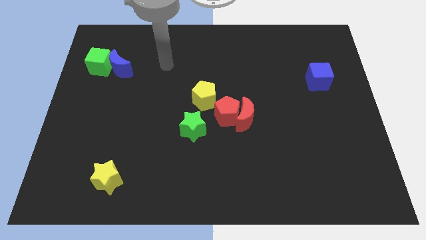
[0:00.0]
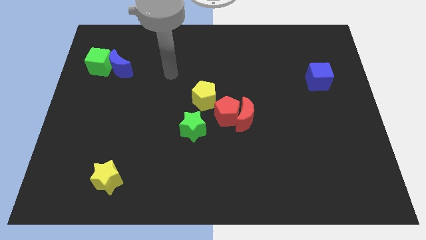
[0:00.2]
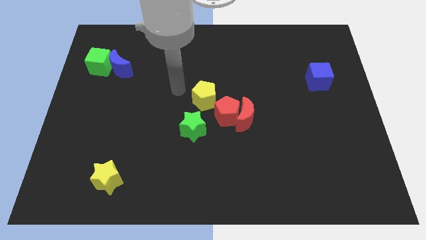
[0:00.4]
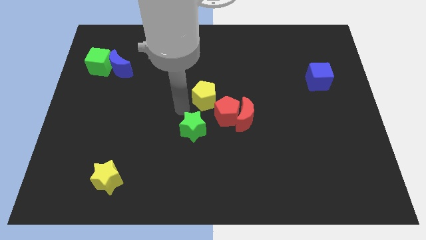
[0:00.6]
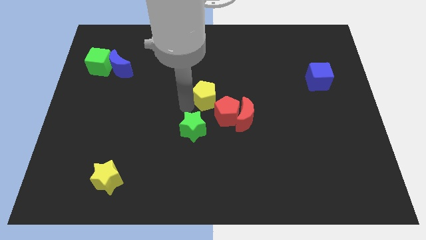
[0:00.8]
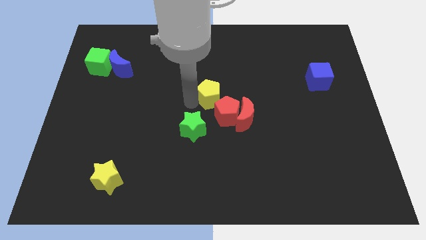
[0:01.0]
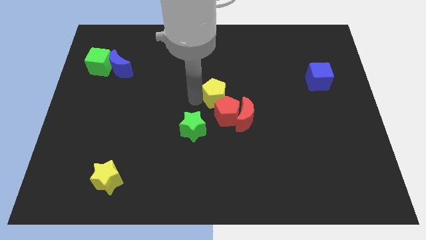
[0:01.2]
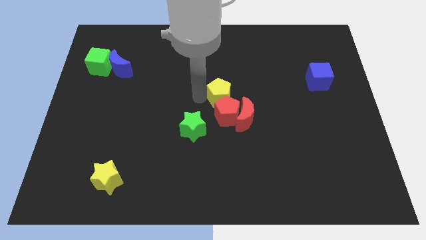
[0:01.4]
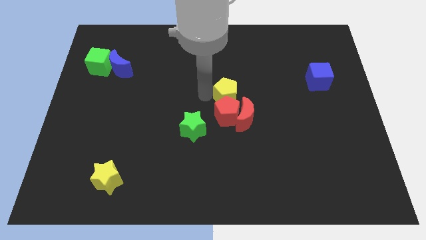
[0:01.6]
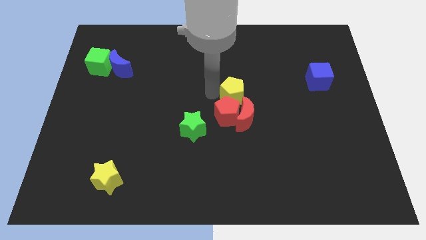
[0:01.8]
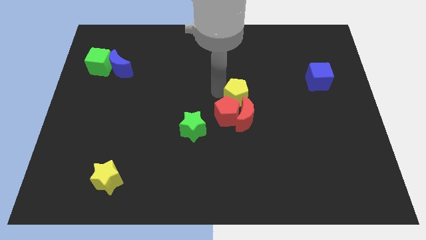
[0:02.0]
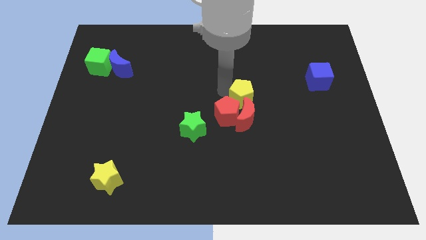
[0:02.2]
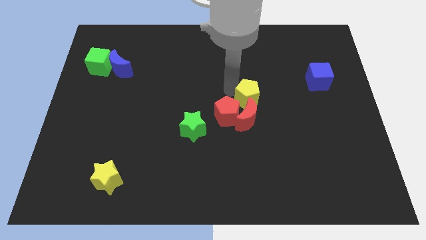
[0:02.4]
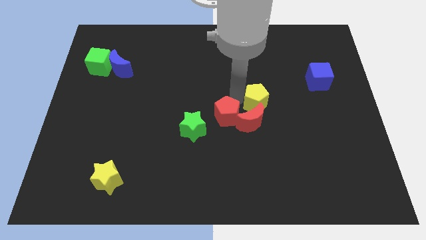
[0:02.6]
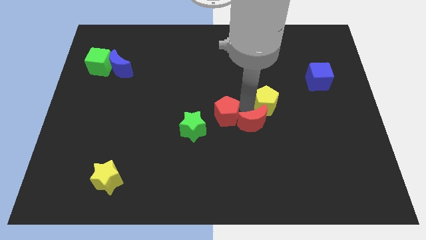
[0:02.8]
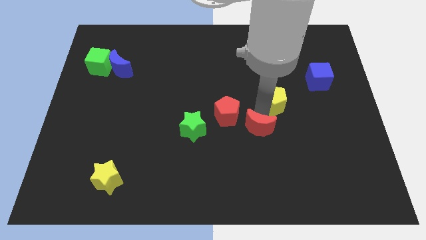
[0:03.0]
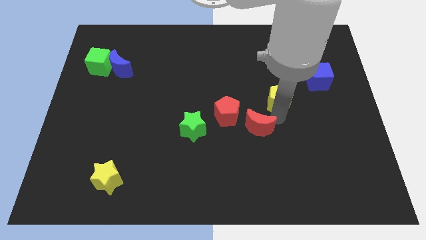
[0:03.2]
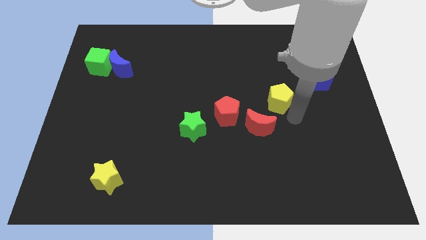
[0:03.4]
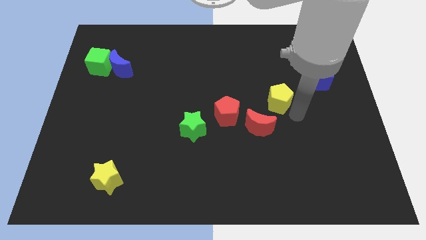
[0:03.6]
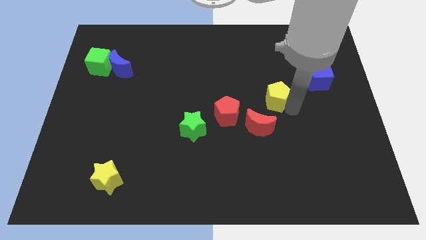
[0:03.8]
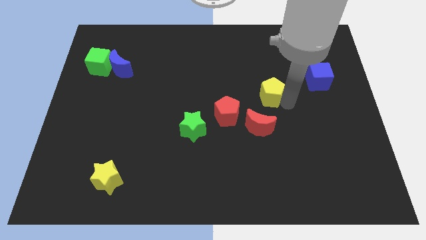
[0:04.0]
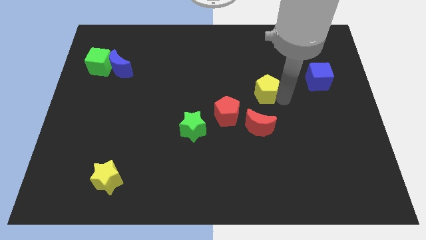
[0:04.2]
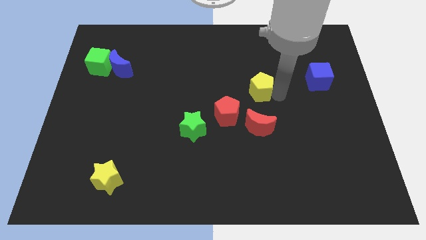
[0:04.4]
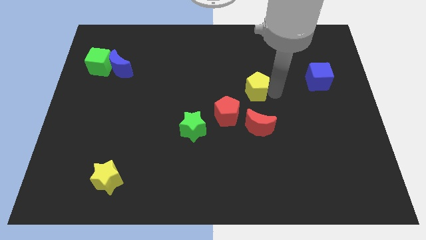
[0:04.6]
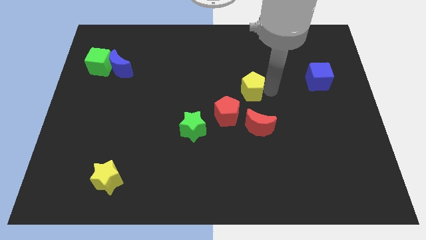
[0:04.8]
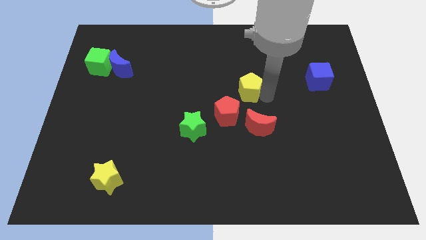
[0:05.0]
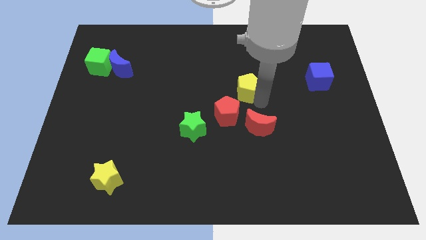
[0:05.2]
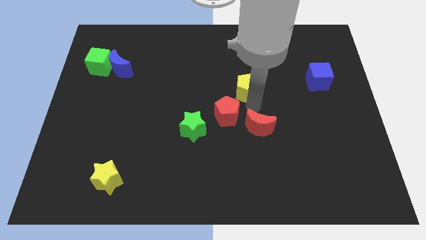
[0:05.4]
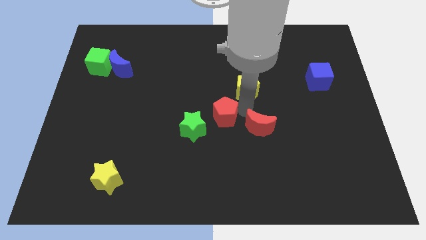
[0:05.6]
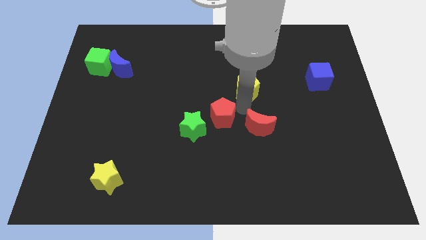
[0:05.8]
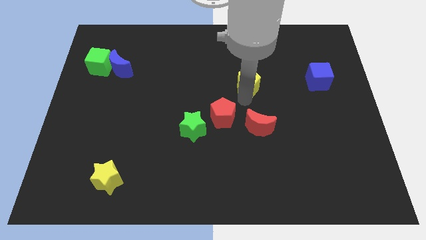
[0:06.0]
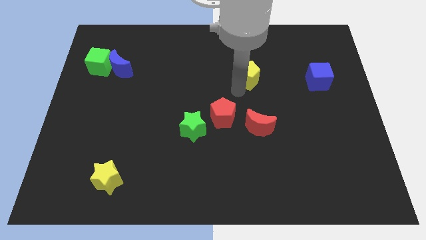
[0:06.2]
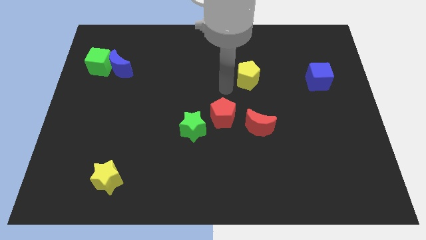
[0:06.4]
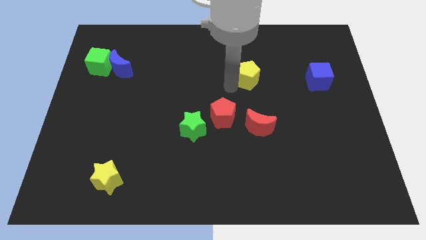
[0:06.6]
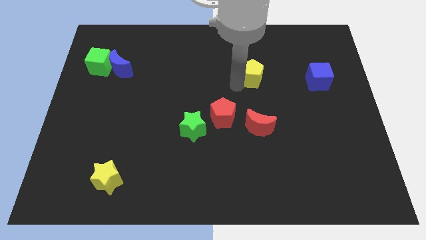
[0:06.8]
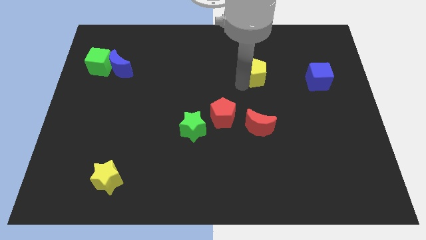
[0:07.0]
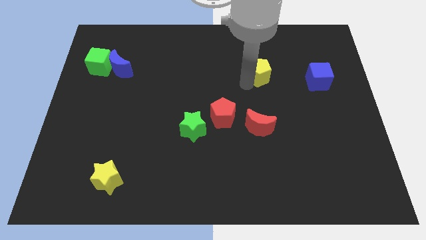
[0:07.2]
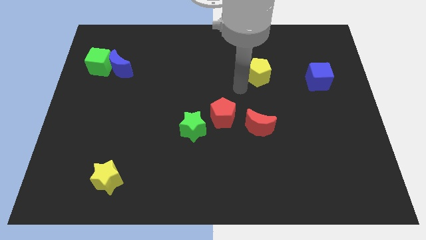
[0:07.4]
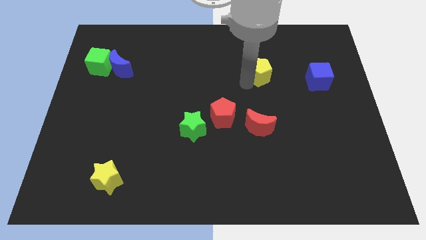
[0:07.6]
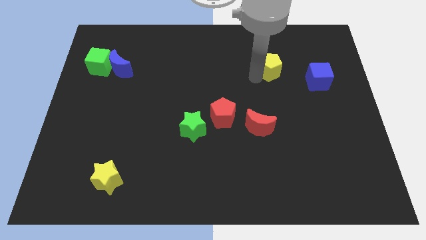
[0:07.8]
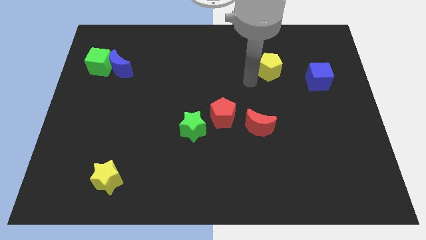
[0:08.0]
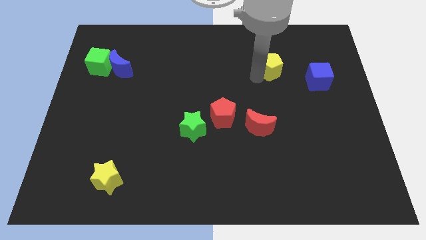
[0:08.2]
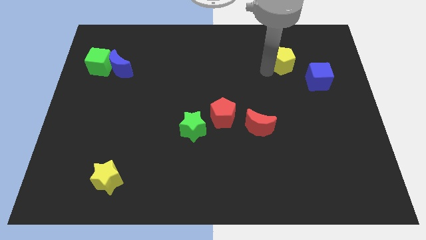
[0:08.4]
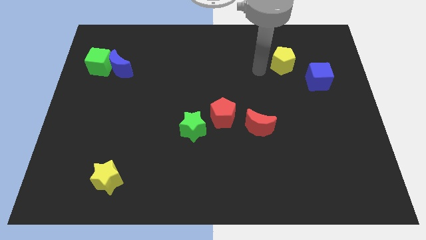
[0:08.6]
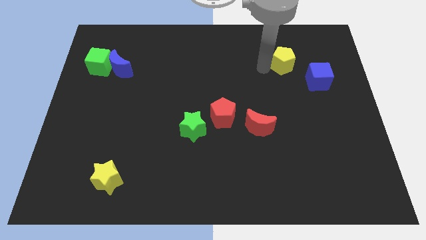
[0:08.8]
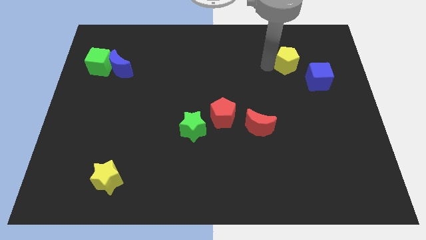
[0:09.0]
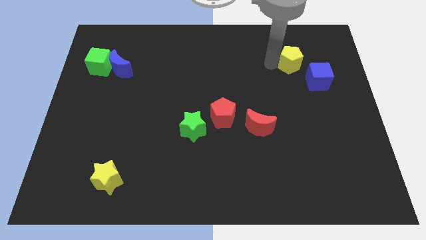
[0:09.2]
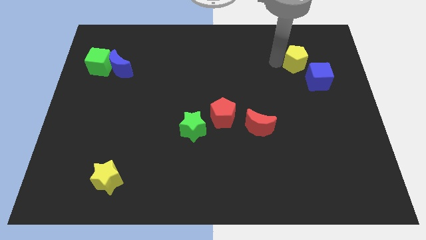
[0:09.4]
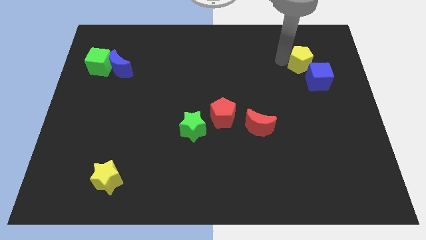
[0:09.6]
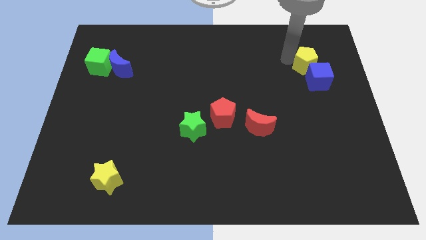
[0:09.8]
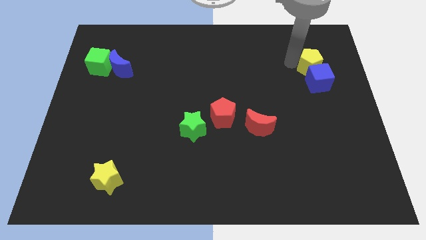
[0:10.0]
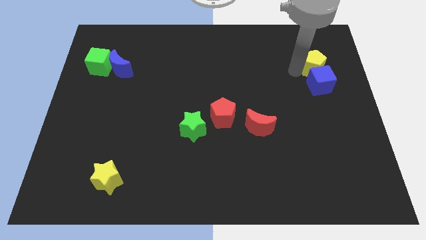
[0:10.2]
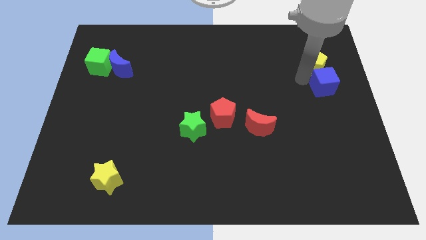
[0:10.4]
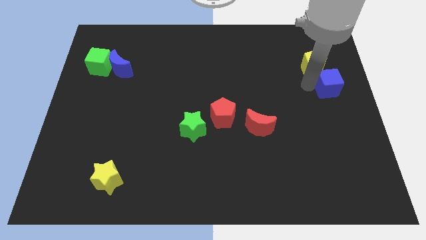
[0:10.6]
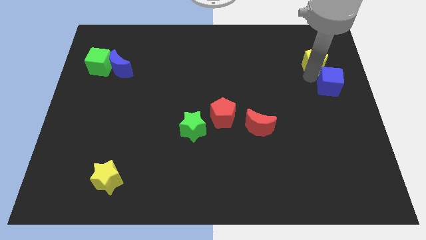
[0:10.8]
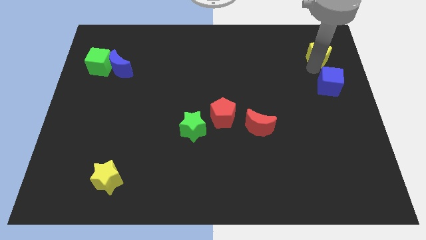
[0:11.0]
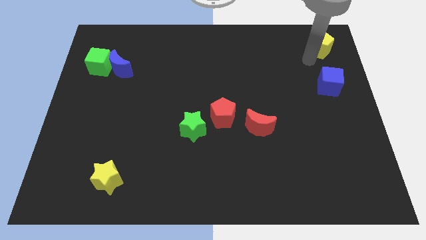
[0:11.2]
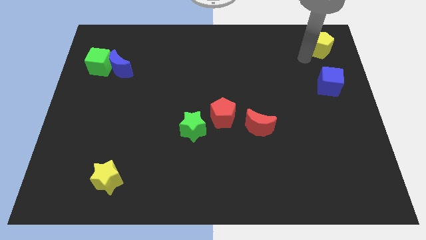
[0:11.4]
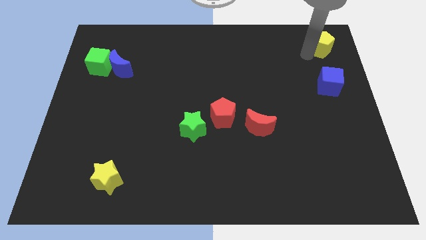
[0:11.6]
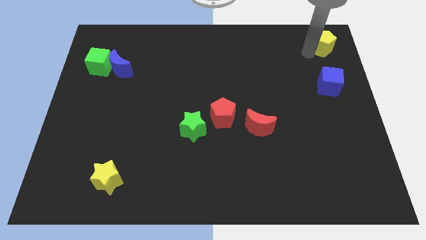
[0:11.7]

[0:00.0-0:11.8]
slide the yellow pentagon to the upper right corner
